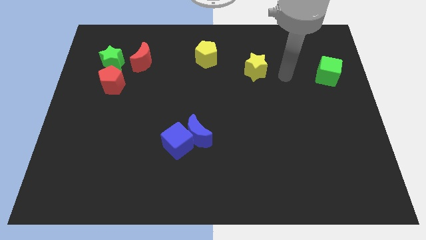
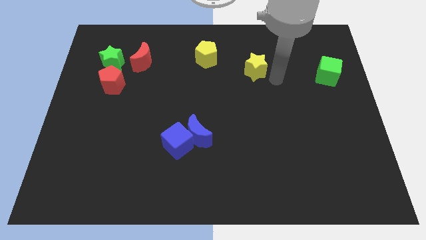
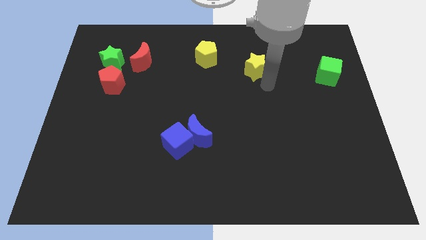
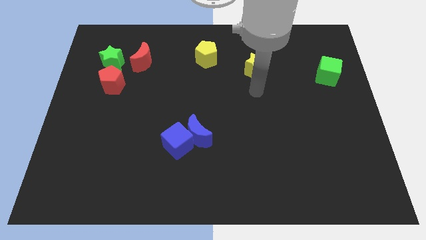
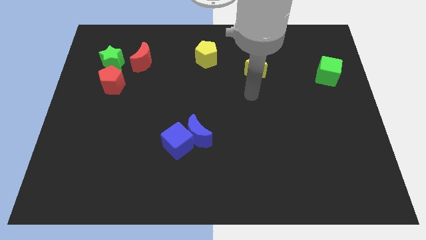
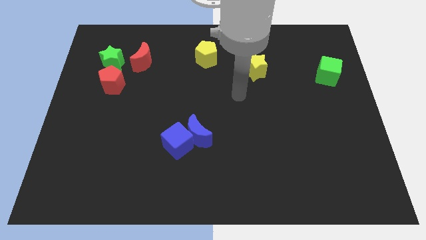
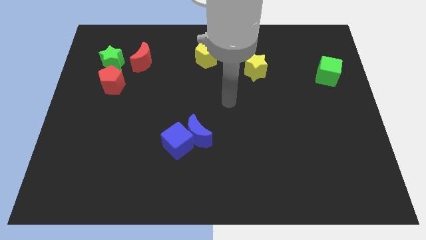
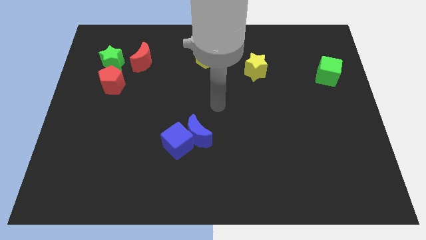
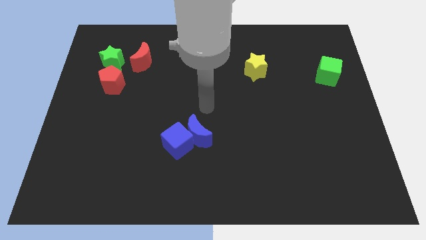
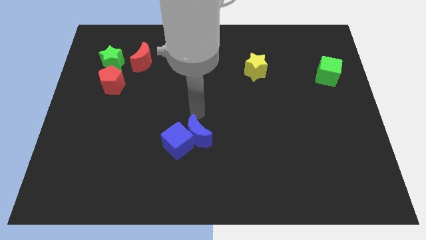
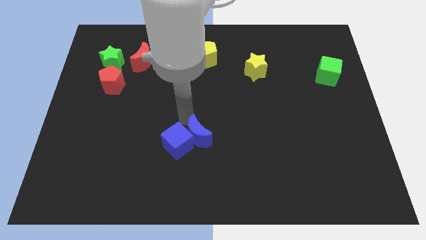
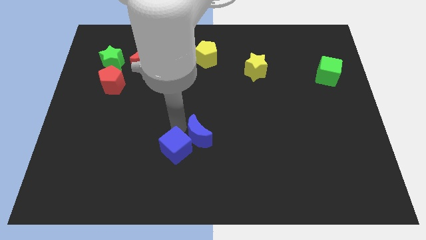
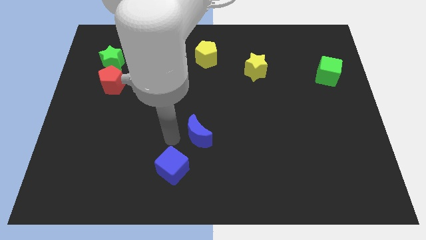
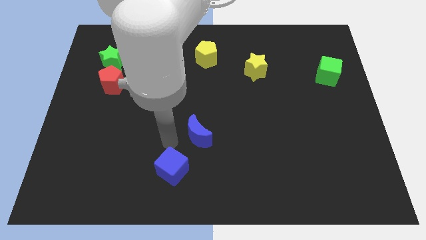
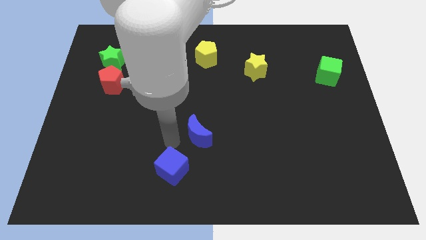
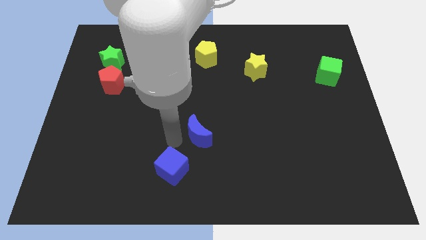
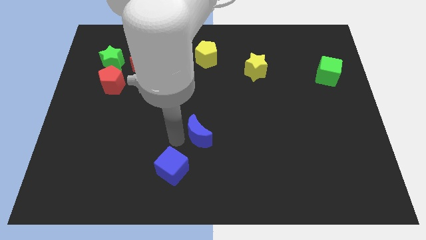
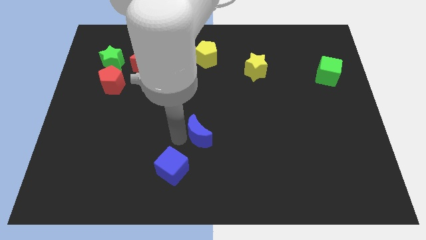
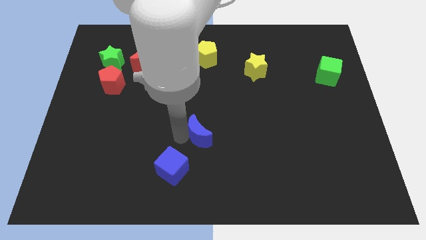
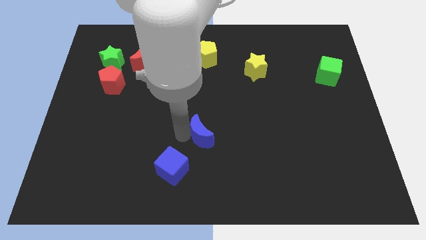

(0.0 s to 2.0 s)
separate the blue moon from the blue cube

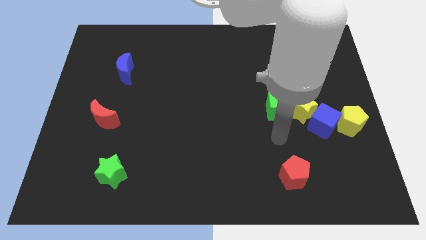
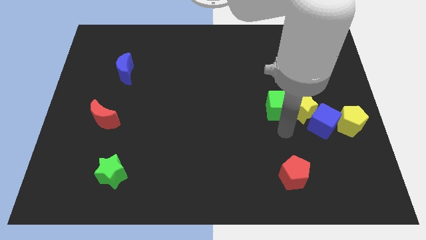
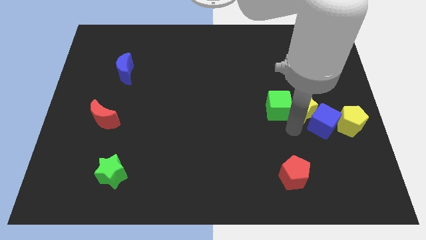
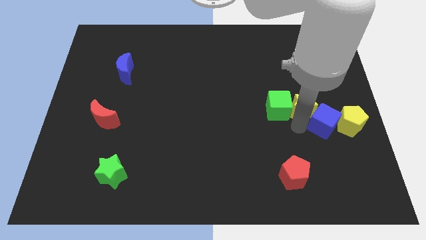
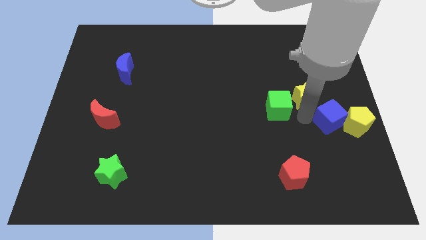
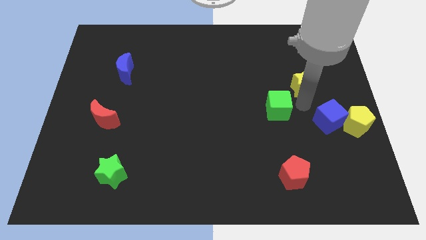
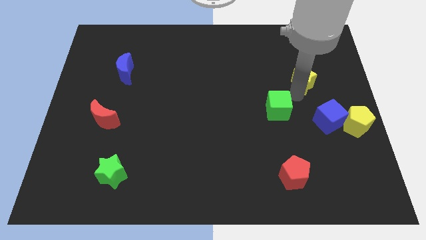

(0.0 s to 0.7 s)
separate the green cube from the yellow star

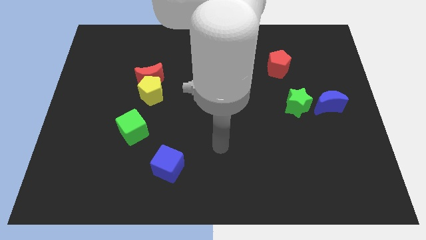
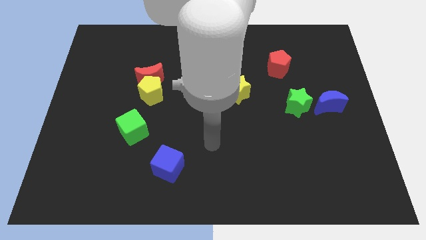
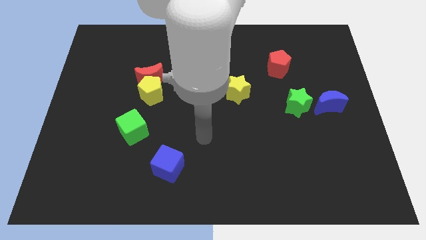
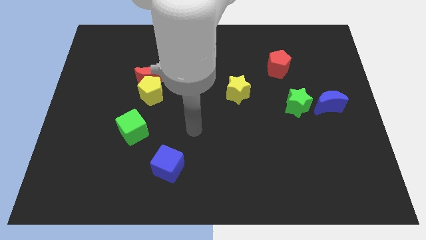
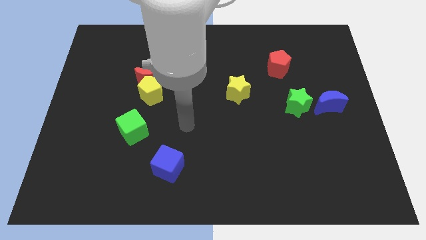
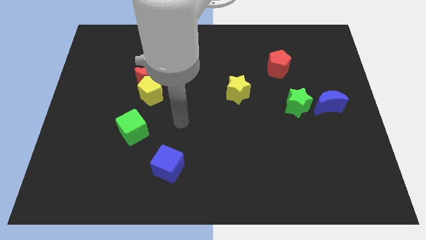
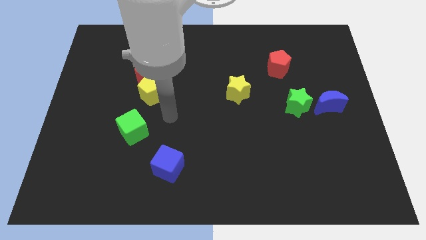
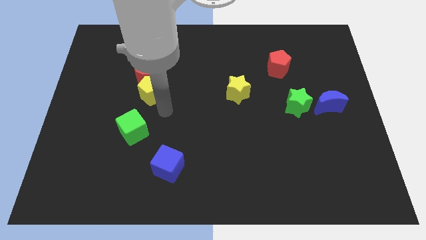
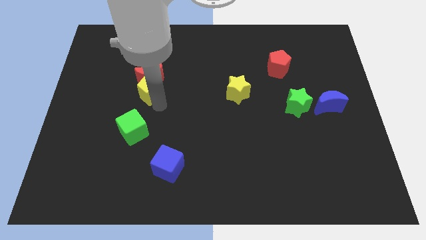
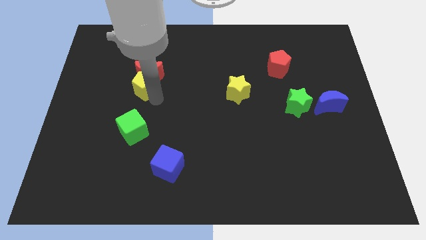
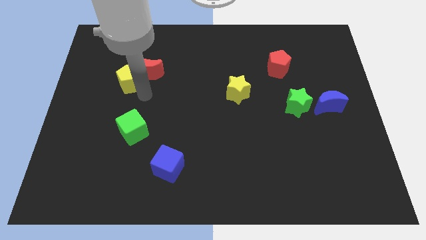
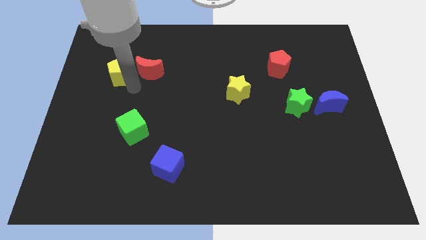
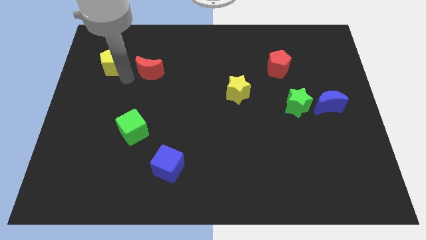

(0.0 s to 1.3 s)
move the red moon away from the yellow pentagon

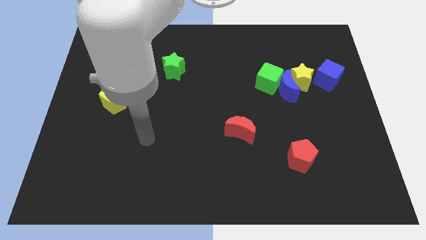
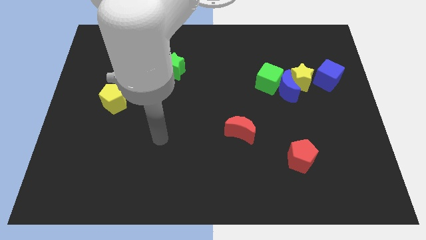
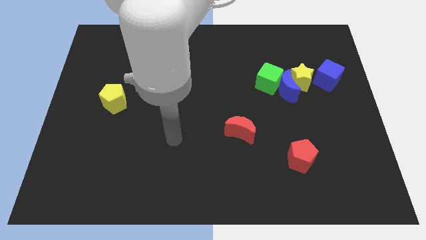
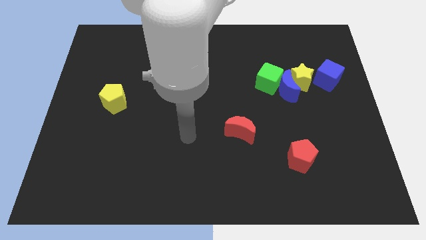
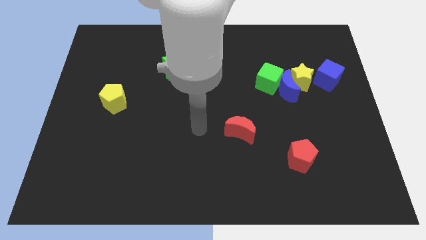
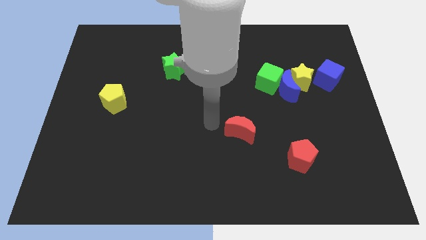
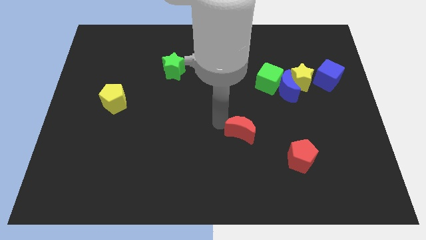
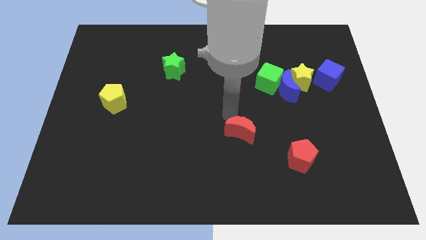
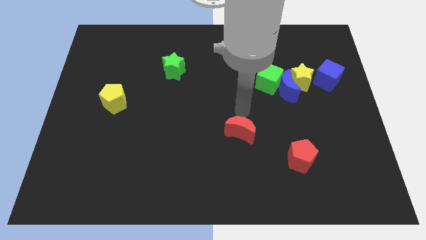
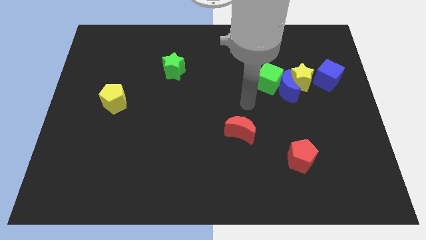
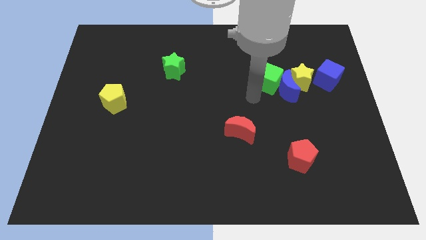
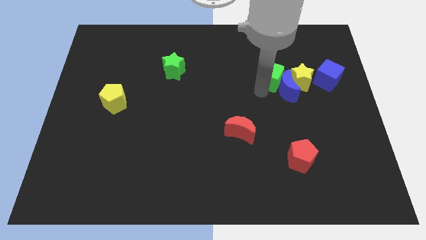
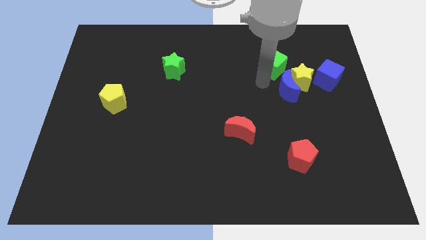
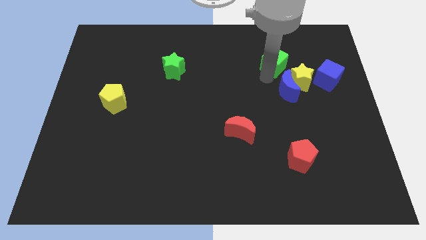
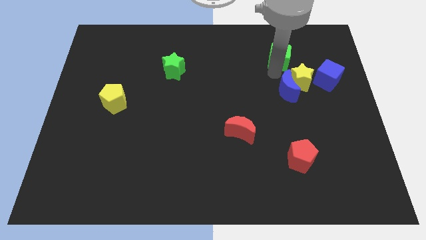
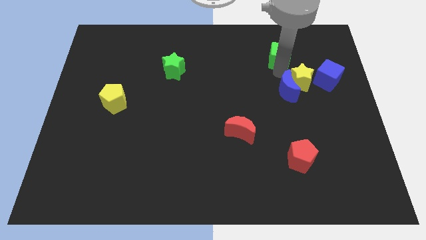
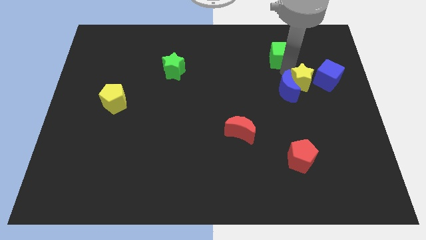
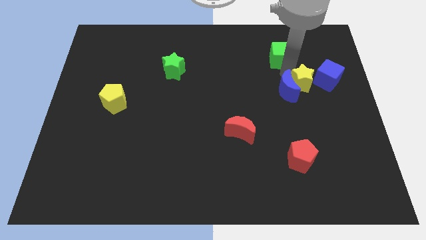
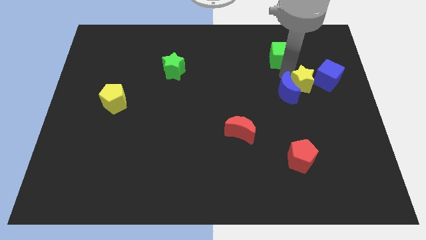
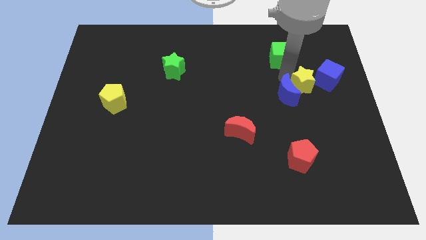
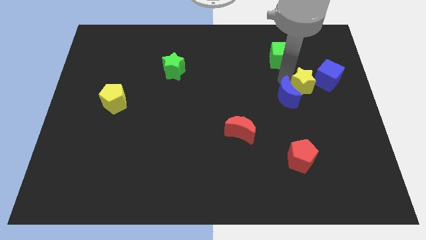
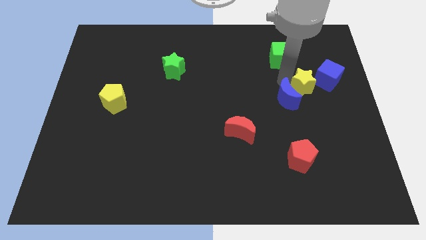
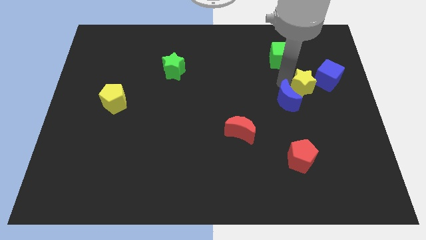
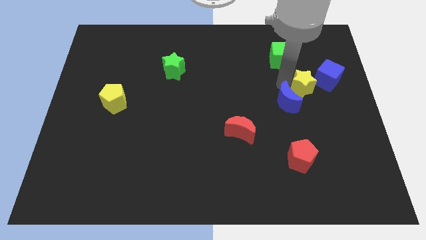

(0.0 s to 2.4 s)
move the blue moon away from the yellow star and green cube

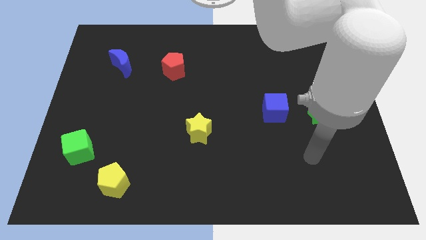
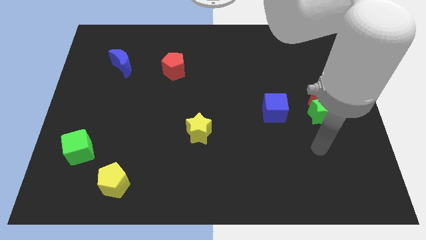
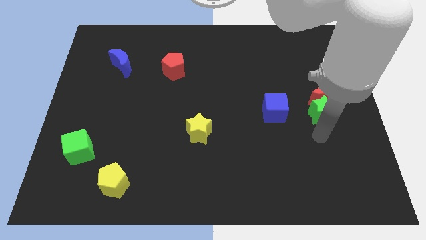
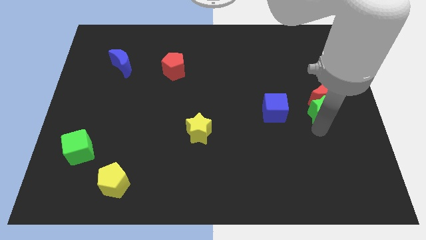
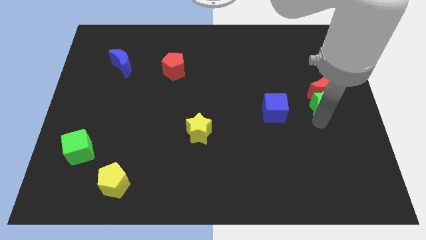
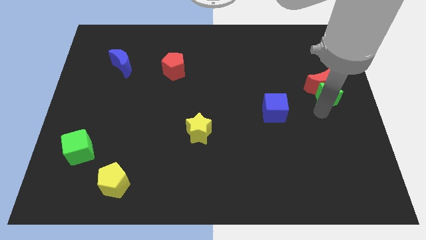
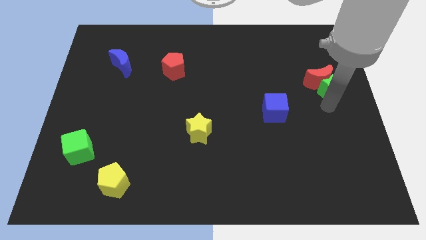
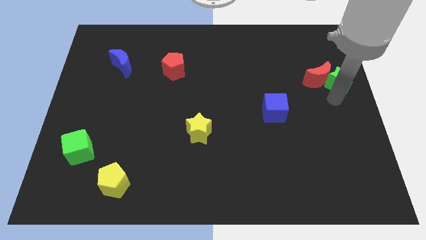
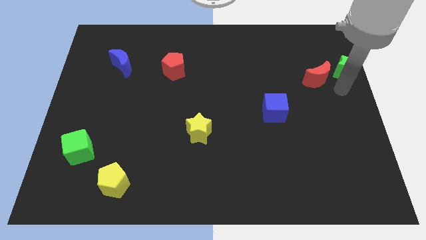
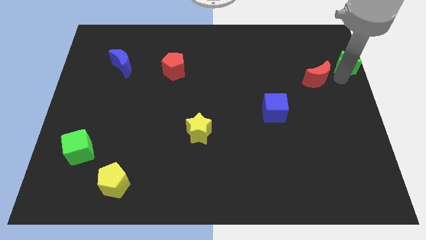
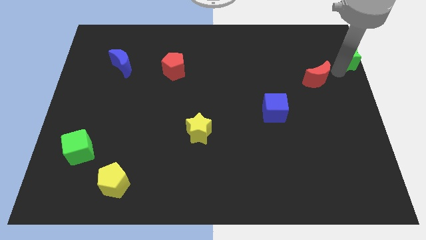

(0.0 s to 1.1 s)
pull the red moon apart from the green star

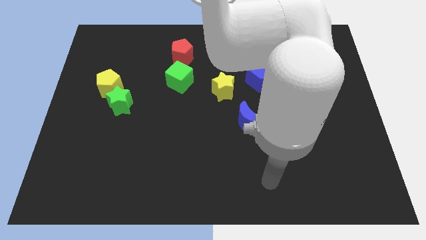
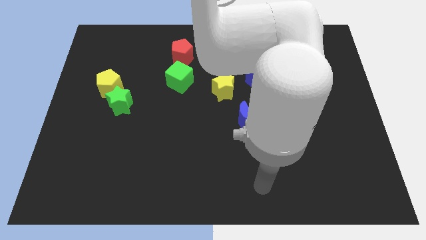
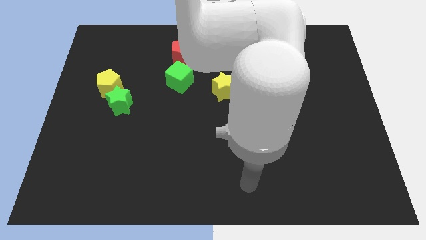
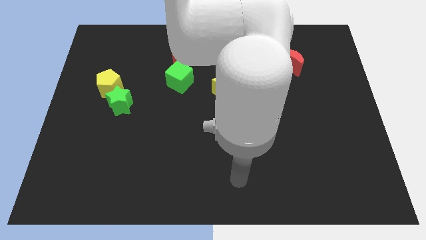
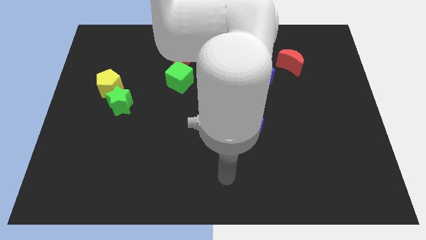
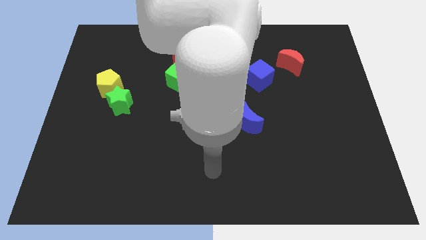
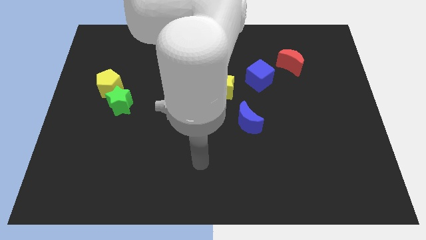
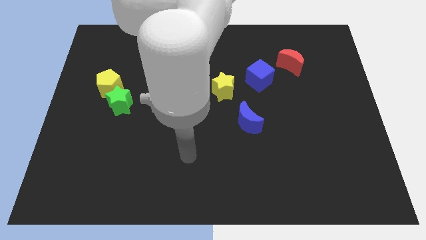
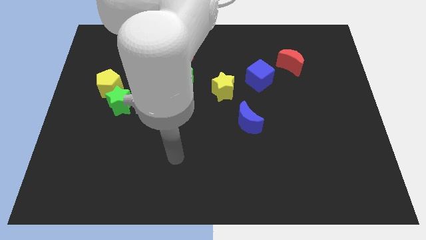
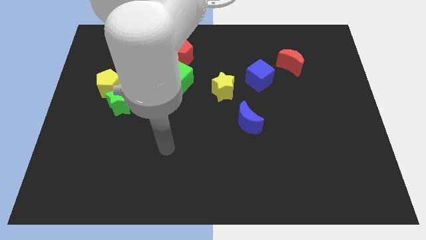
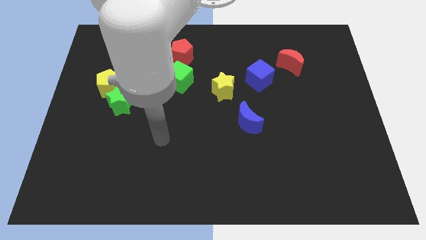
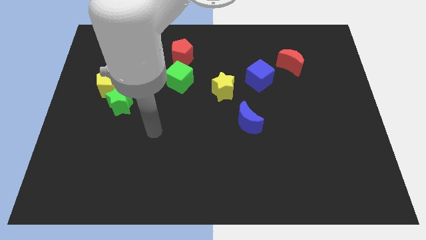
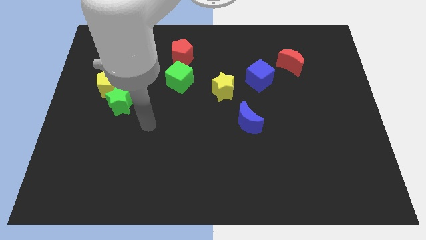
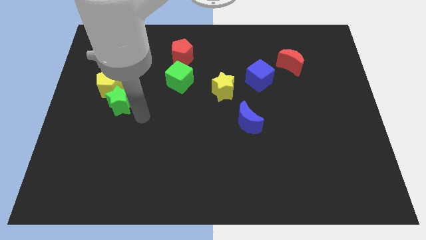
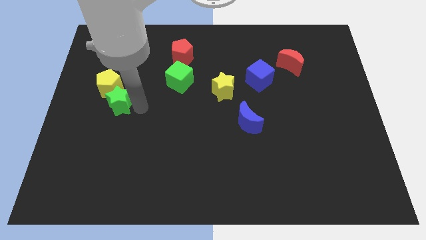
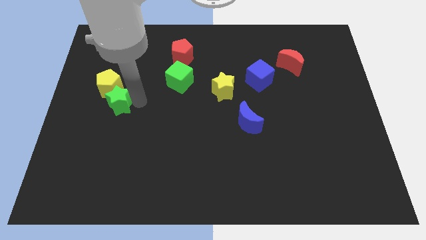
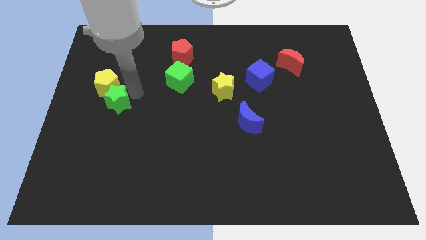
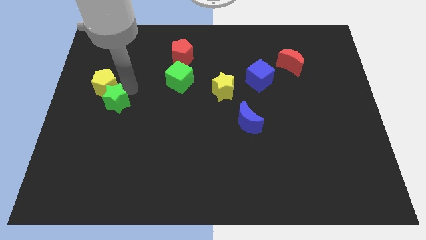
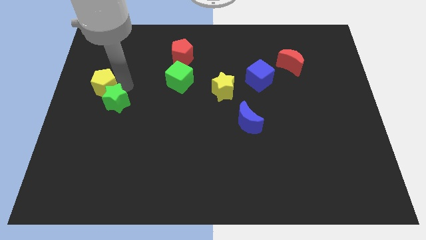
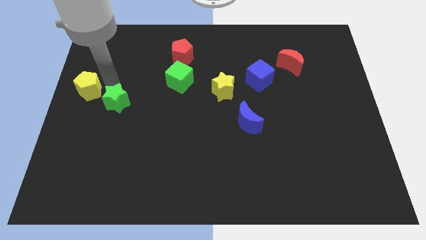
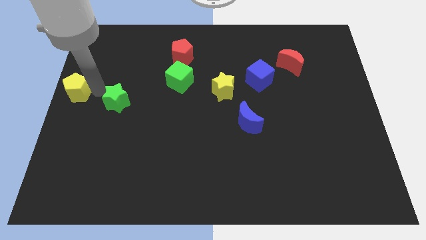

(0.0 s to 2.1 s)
pull the green star apart from the yellow pentagon
